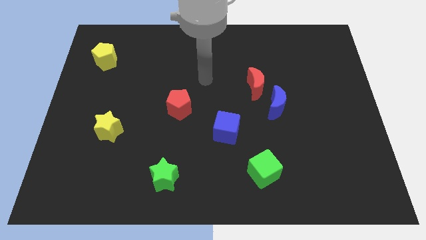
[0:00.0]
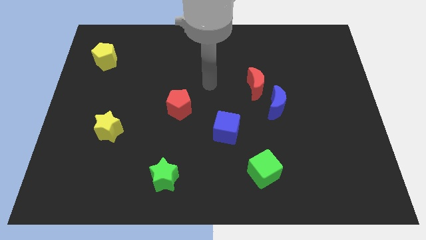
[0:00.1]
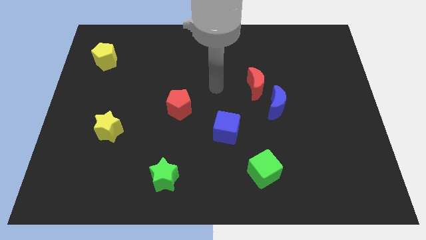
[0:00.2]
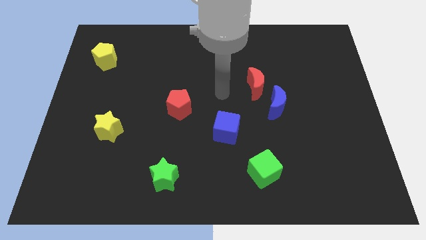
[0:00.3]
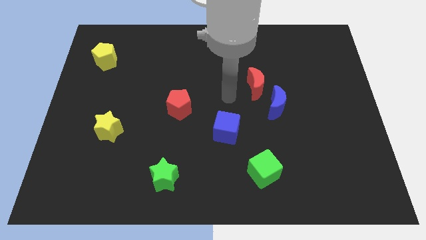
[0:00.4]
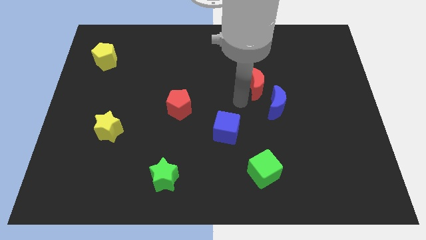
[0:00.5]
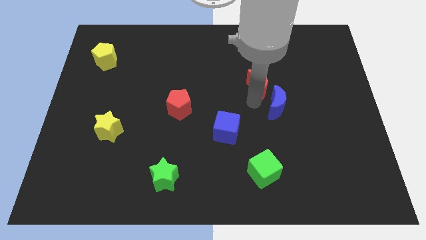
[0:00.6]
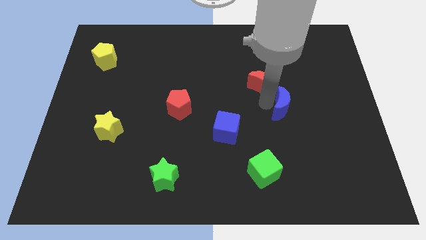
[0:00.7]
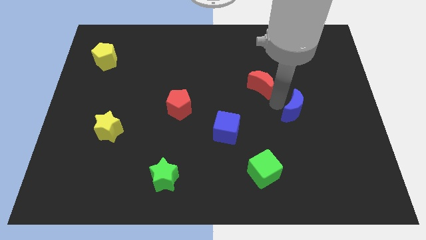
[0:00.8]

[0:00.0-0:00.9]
separate the red moon from the blue moon

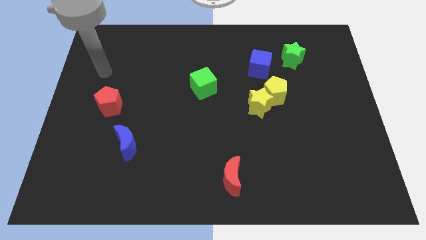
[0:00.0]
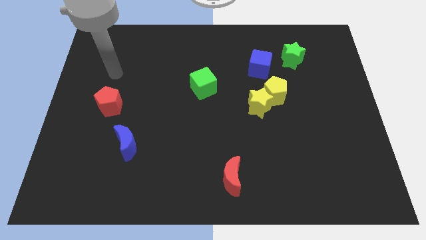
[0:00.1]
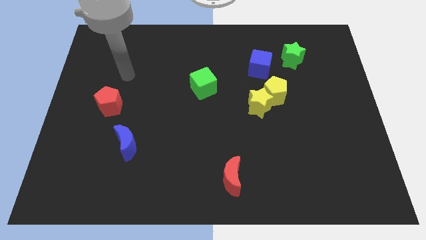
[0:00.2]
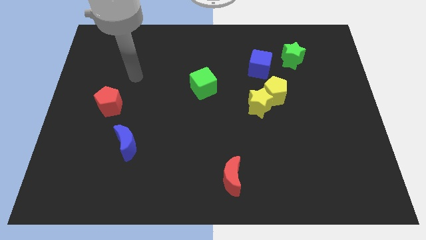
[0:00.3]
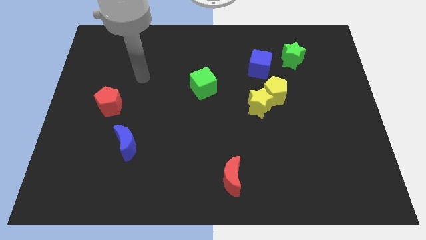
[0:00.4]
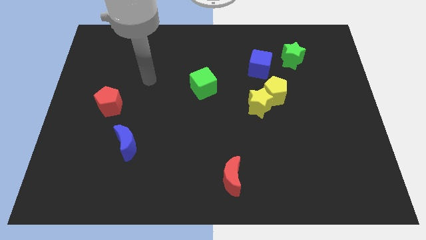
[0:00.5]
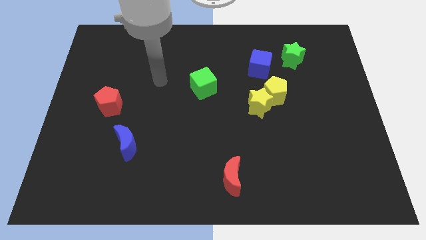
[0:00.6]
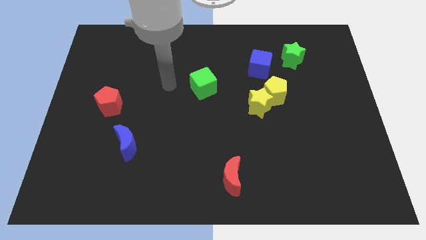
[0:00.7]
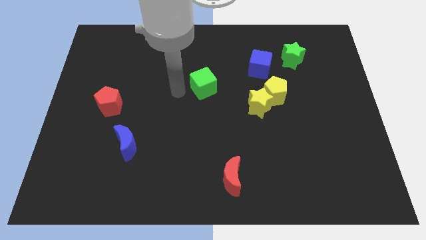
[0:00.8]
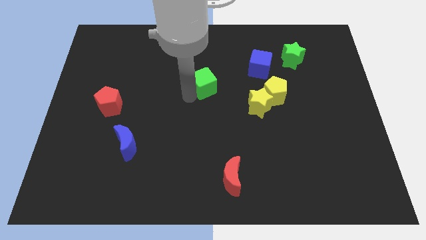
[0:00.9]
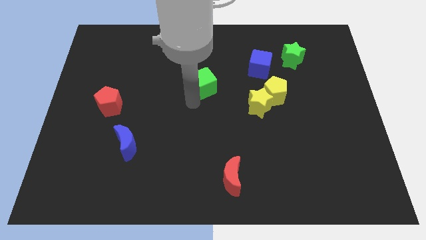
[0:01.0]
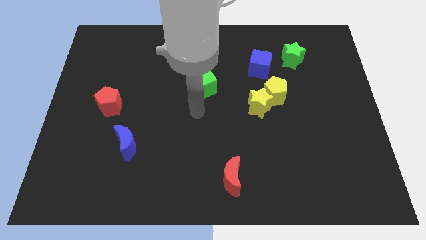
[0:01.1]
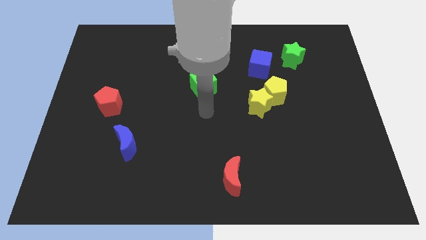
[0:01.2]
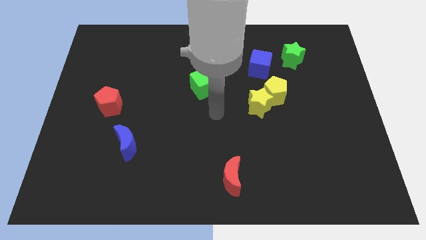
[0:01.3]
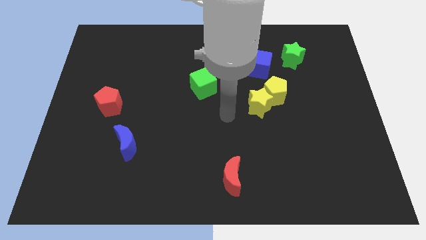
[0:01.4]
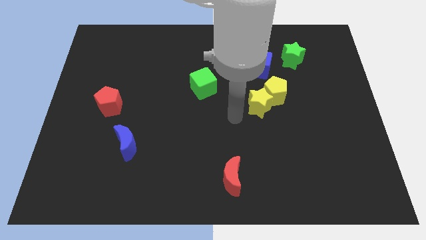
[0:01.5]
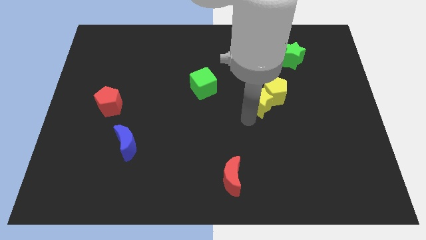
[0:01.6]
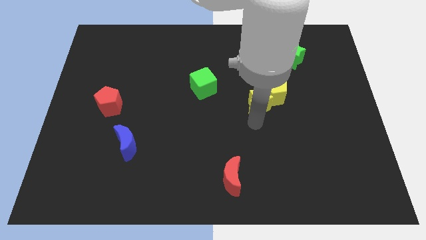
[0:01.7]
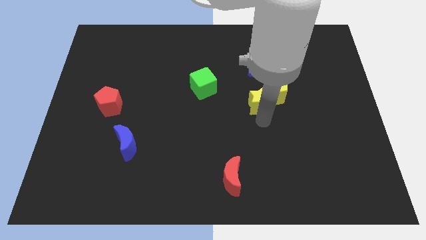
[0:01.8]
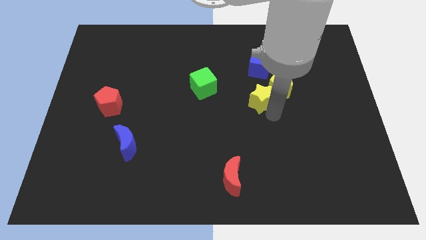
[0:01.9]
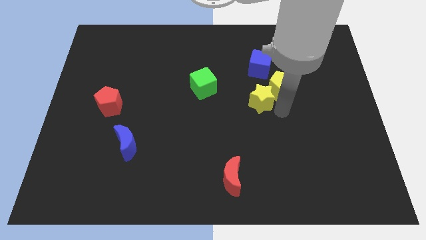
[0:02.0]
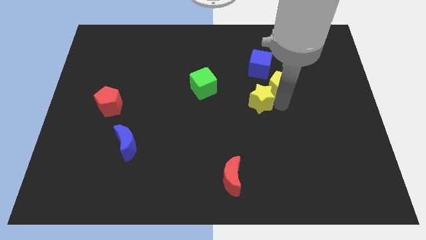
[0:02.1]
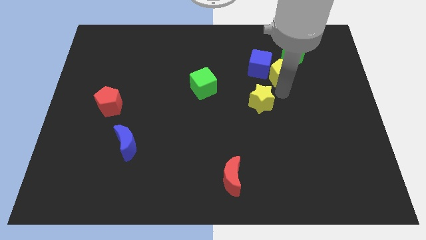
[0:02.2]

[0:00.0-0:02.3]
move the yellow star away from the yellow pentagon

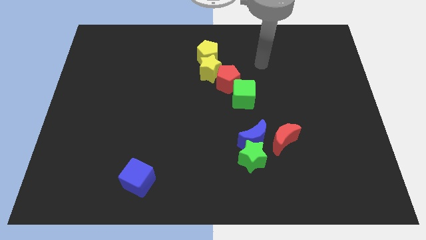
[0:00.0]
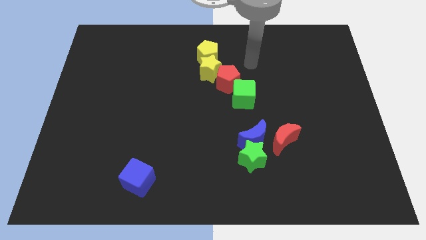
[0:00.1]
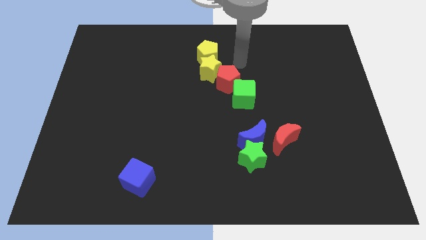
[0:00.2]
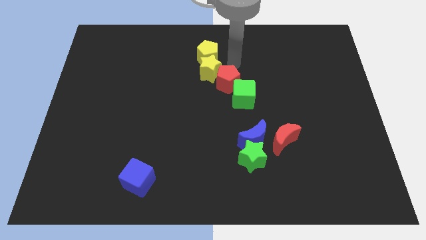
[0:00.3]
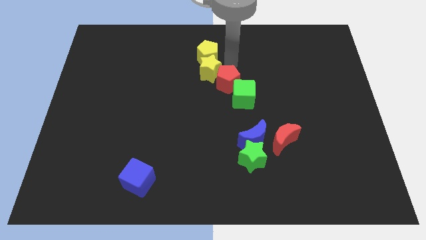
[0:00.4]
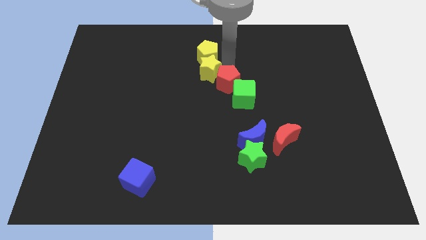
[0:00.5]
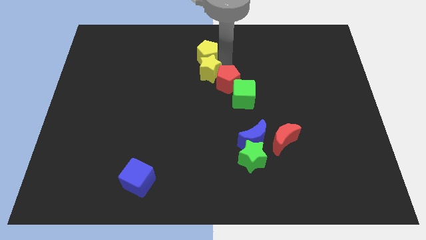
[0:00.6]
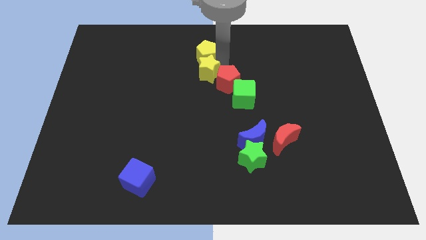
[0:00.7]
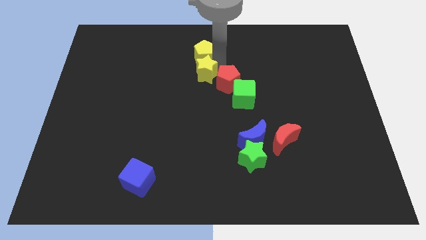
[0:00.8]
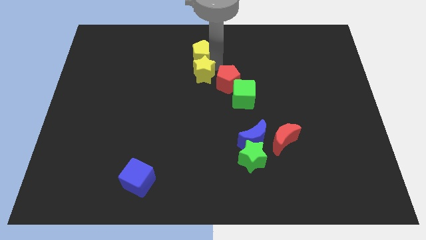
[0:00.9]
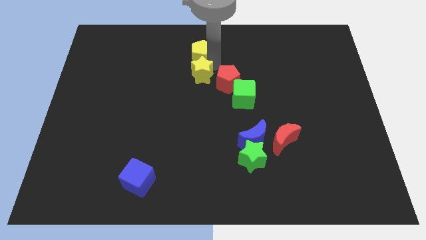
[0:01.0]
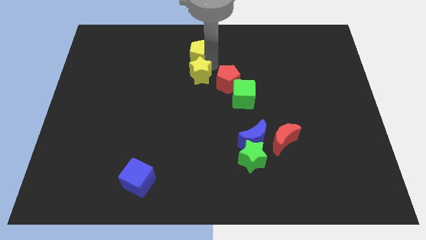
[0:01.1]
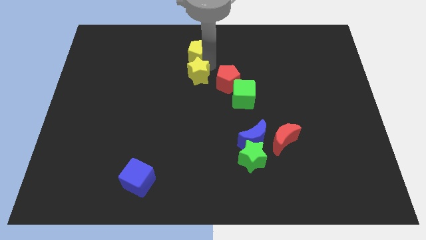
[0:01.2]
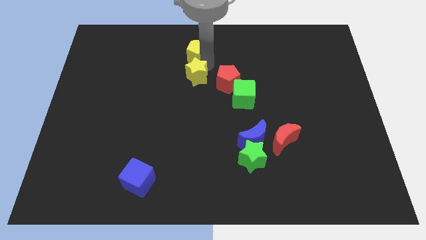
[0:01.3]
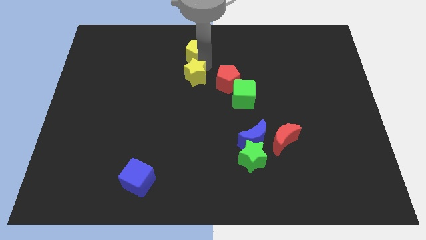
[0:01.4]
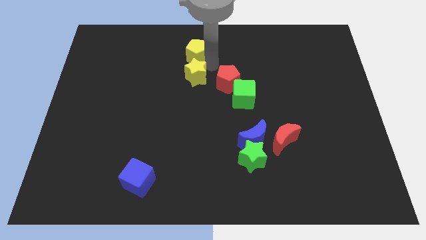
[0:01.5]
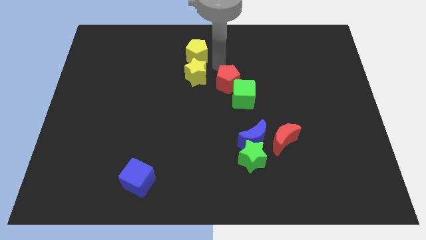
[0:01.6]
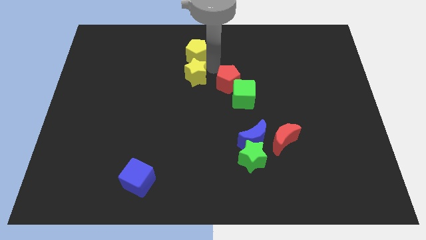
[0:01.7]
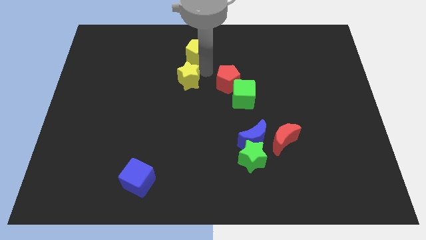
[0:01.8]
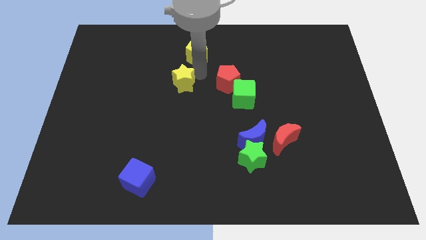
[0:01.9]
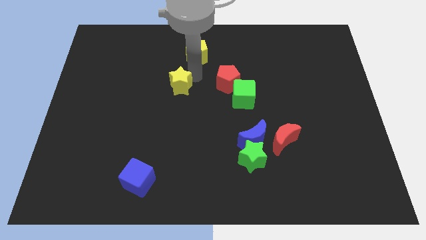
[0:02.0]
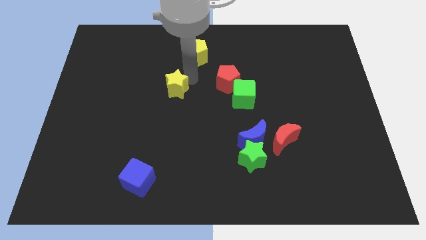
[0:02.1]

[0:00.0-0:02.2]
move the yellow star away from the yellow pentagon and red pentagon

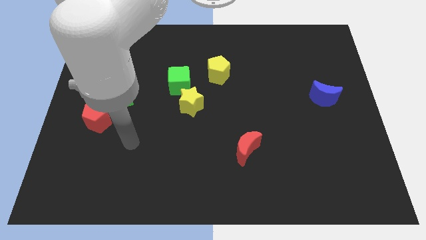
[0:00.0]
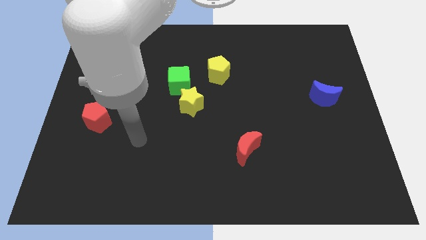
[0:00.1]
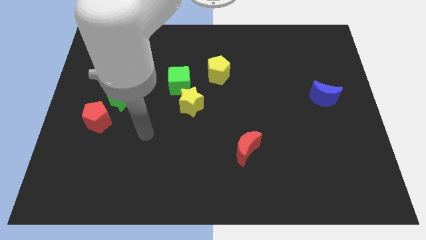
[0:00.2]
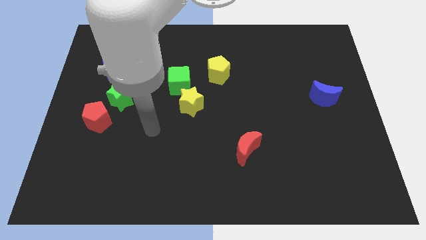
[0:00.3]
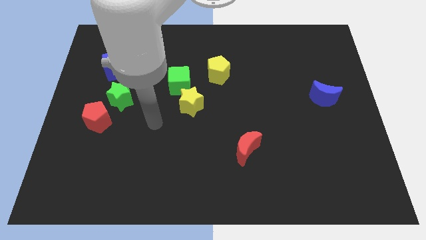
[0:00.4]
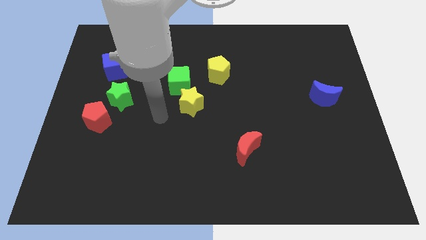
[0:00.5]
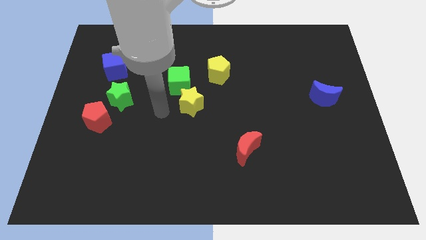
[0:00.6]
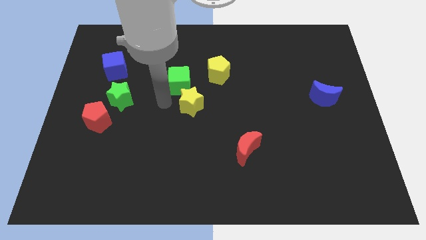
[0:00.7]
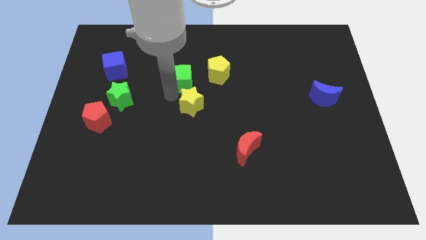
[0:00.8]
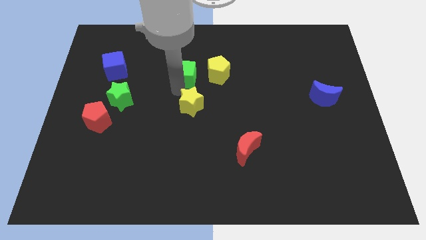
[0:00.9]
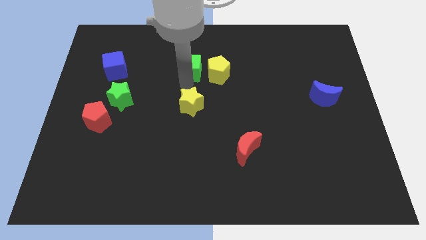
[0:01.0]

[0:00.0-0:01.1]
move the yellow star away from the green cube

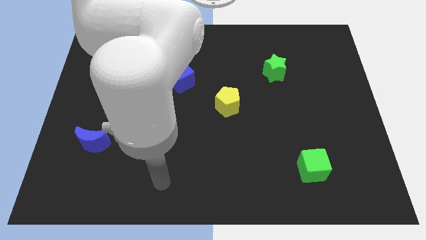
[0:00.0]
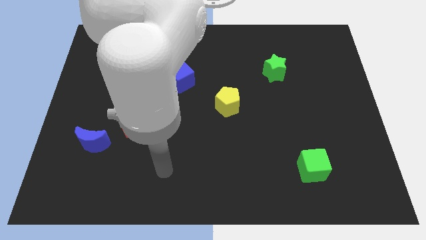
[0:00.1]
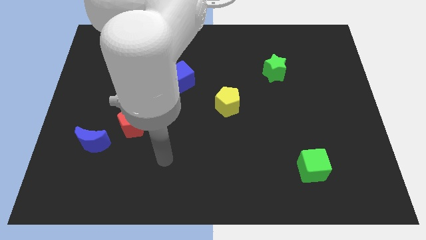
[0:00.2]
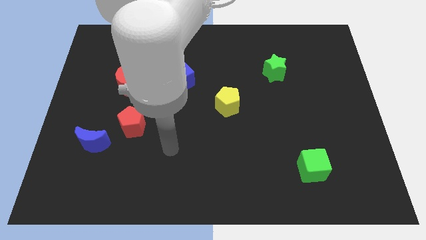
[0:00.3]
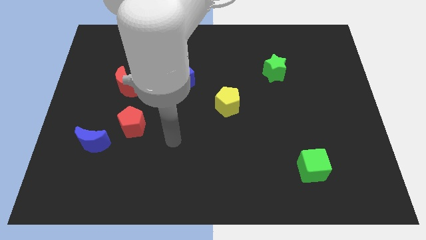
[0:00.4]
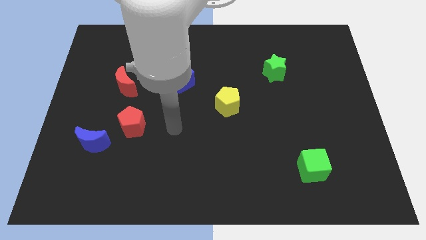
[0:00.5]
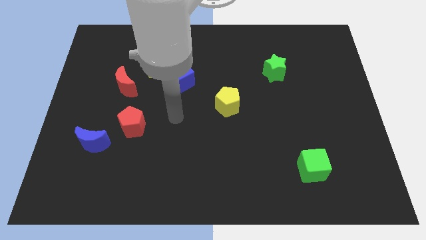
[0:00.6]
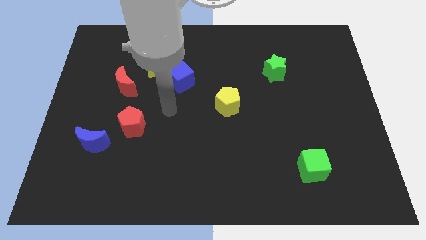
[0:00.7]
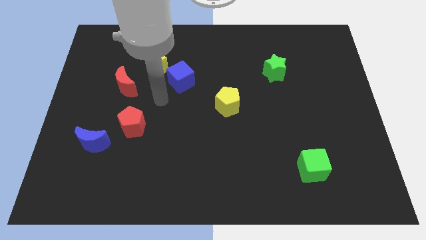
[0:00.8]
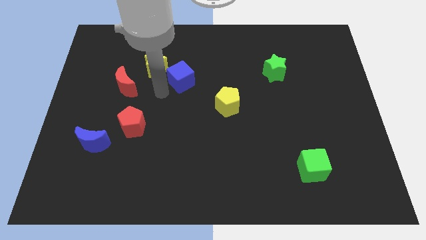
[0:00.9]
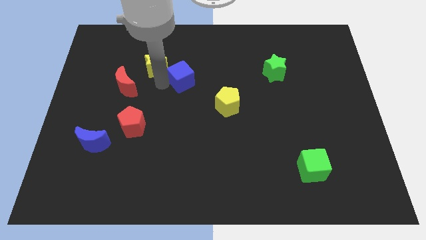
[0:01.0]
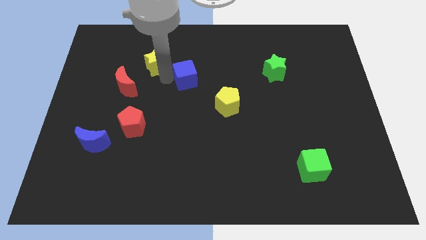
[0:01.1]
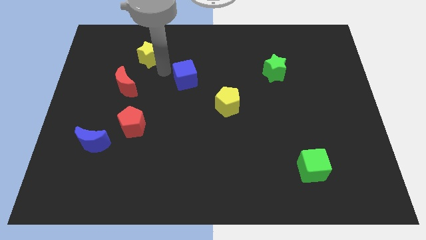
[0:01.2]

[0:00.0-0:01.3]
pull the blue cube apart from the yellow star

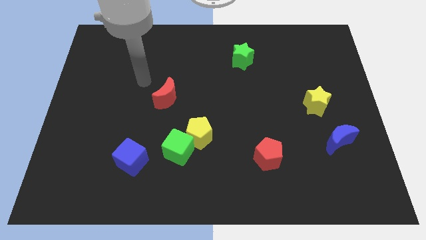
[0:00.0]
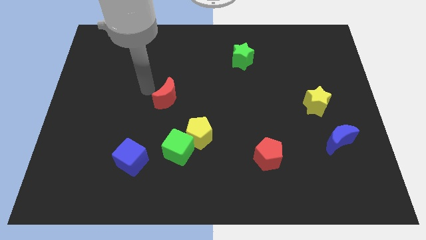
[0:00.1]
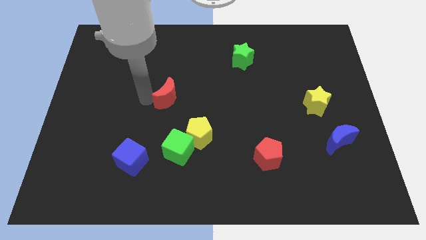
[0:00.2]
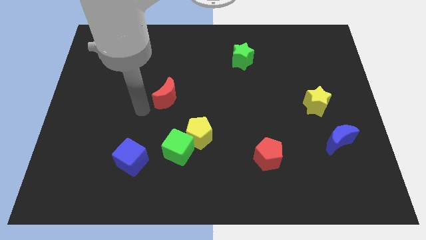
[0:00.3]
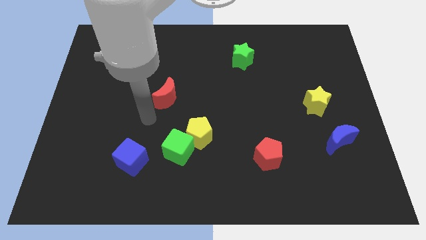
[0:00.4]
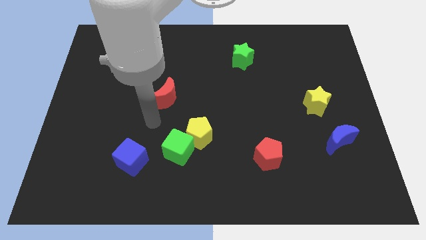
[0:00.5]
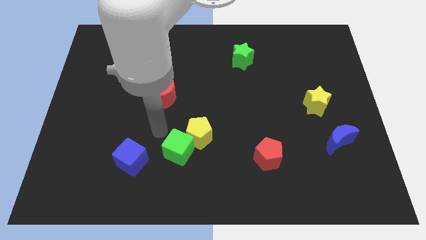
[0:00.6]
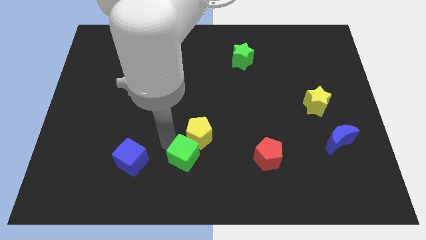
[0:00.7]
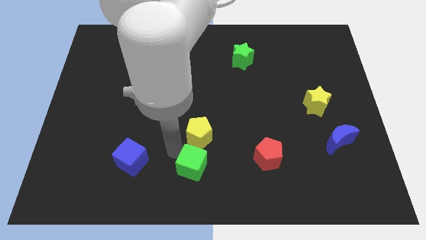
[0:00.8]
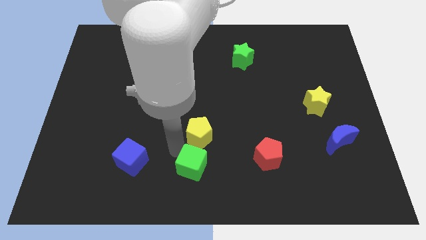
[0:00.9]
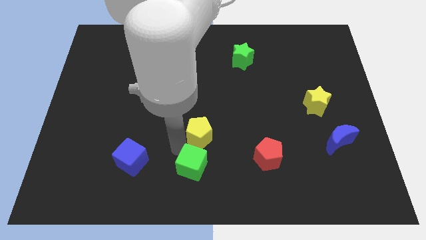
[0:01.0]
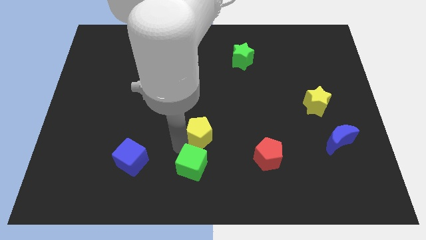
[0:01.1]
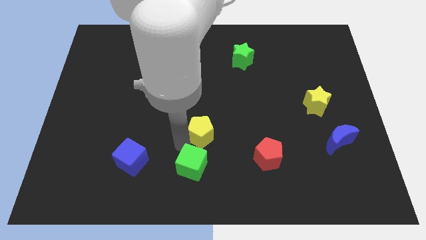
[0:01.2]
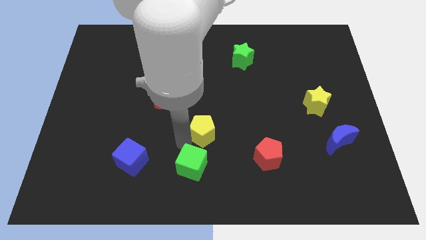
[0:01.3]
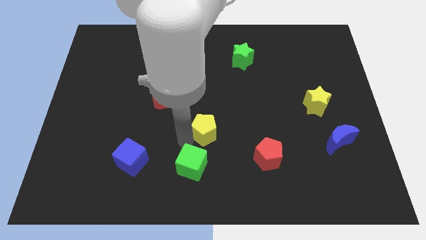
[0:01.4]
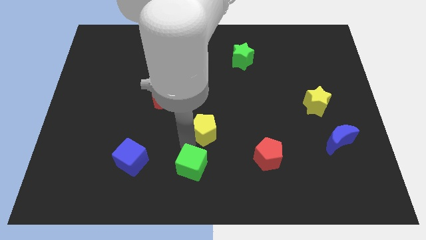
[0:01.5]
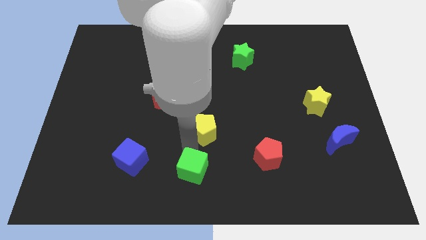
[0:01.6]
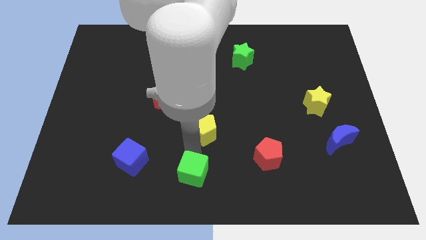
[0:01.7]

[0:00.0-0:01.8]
pull the yellow pentagon apart from the green cube
